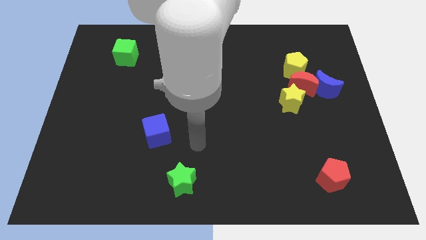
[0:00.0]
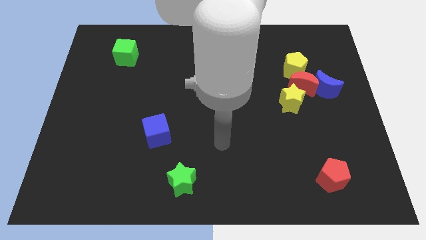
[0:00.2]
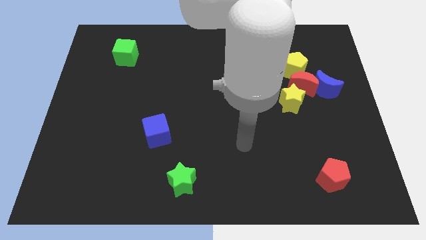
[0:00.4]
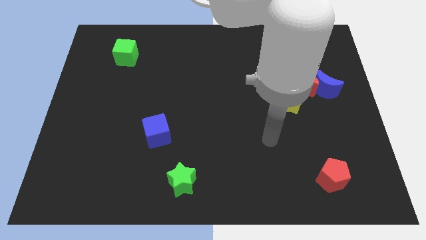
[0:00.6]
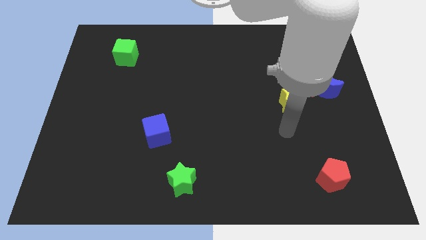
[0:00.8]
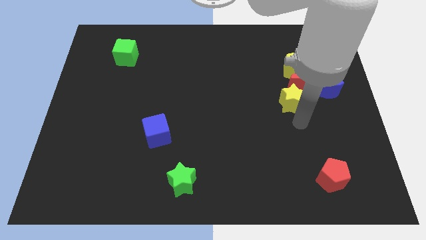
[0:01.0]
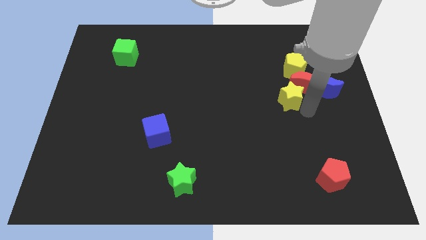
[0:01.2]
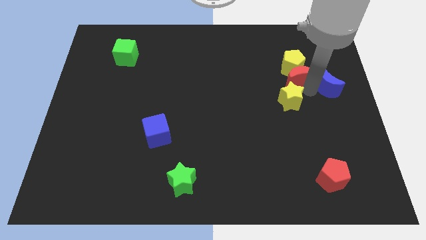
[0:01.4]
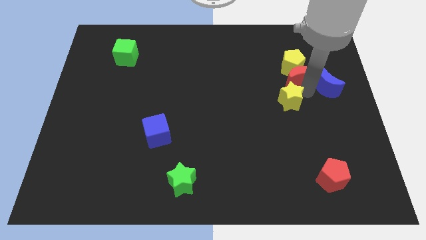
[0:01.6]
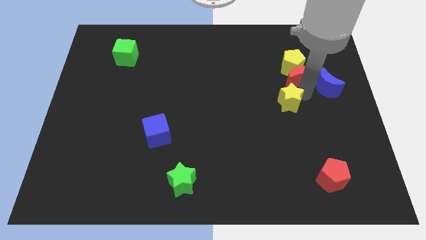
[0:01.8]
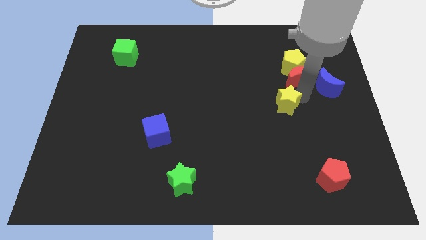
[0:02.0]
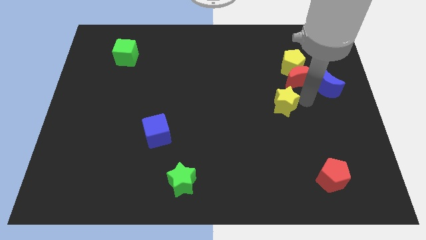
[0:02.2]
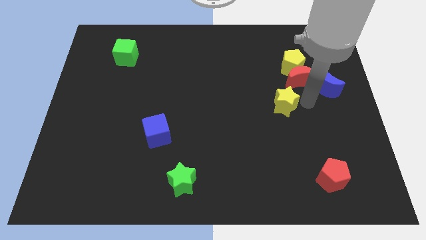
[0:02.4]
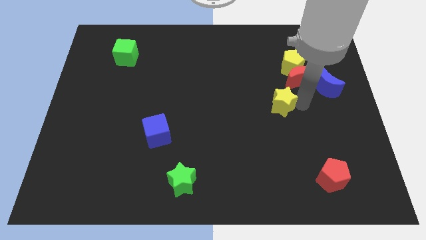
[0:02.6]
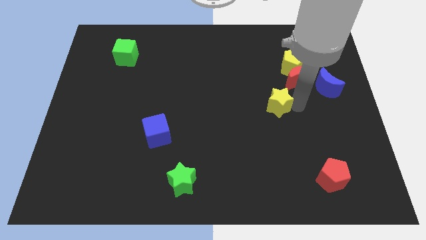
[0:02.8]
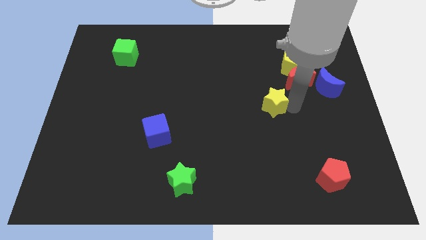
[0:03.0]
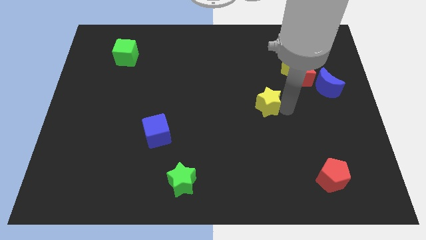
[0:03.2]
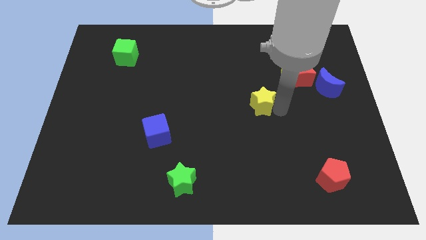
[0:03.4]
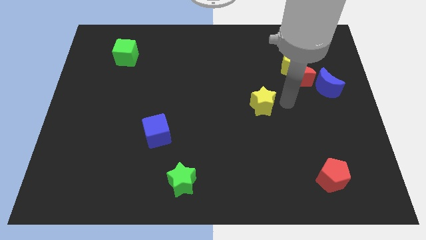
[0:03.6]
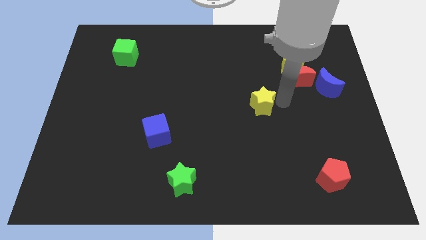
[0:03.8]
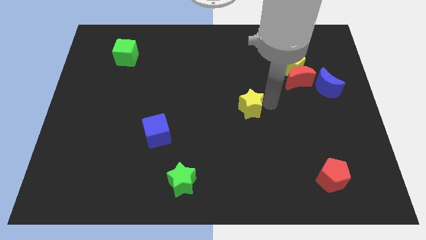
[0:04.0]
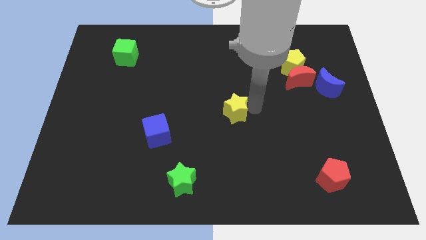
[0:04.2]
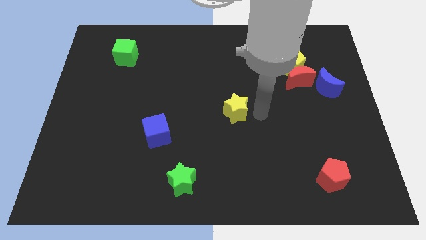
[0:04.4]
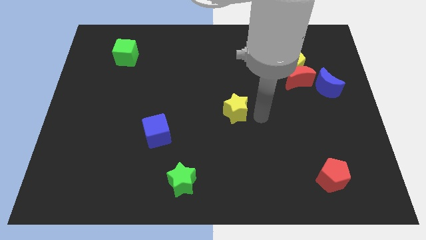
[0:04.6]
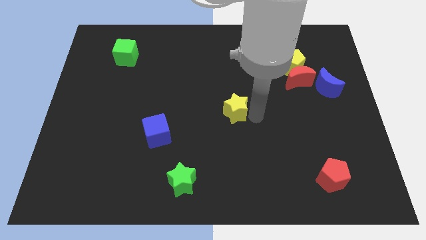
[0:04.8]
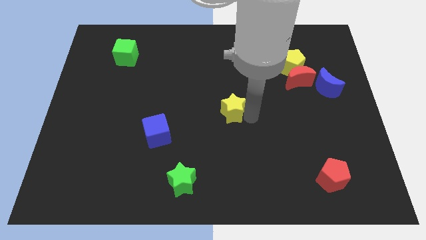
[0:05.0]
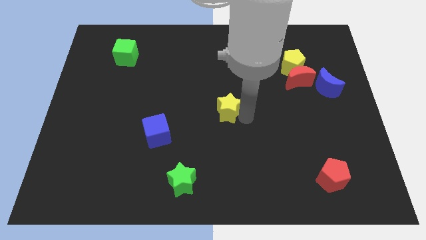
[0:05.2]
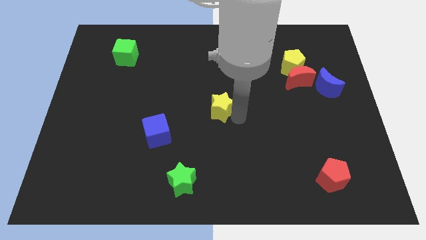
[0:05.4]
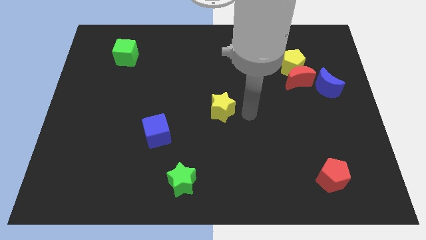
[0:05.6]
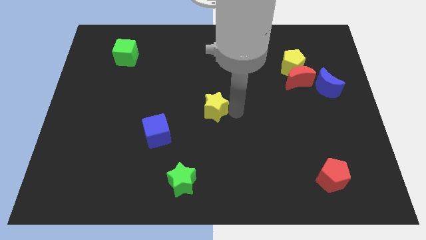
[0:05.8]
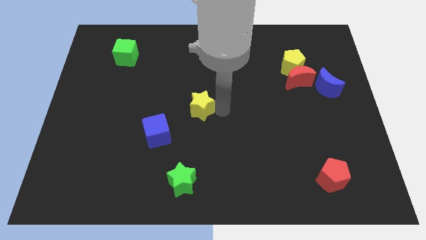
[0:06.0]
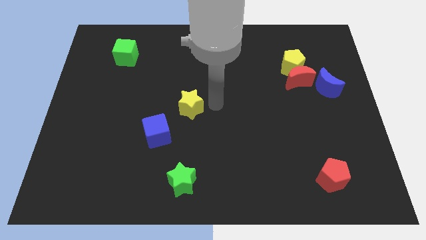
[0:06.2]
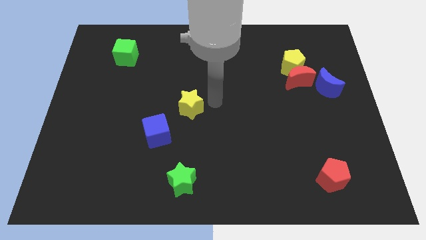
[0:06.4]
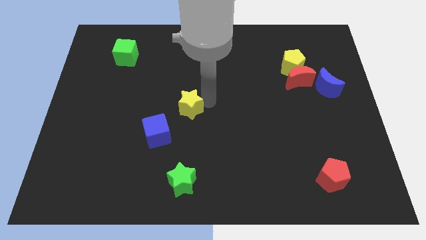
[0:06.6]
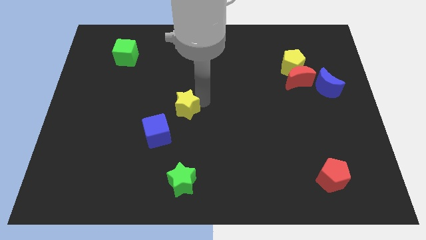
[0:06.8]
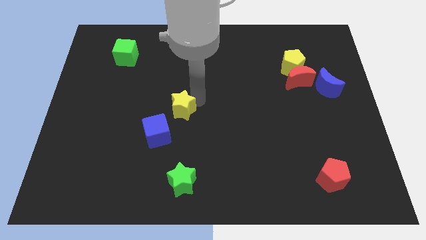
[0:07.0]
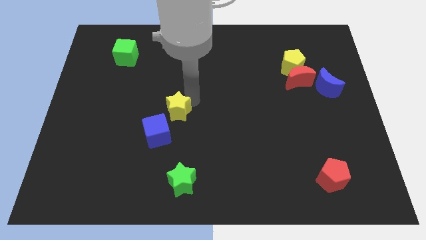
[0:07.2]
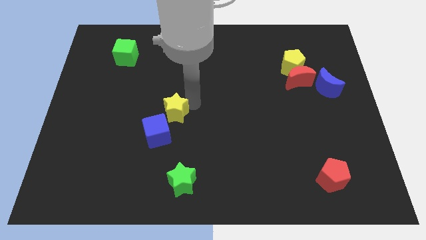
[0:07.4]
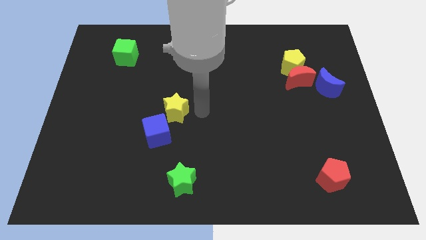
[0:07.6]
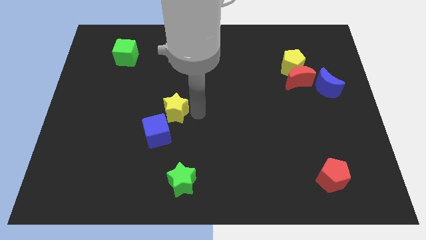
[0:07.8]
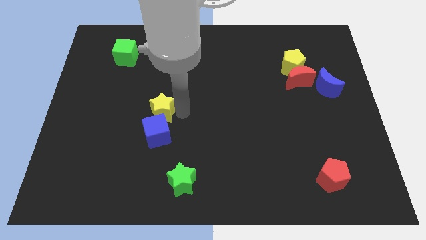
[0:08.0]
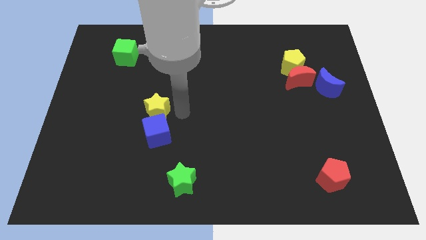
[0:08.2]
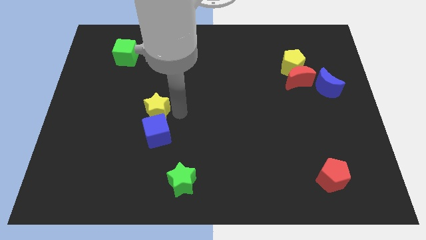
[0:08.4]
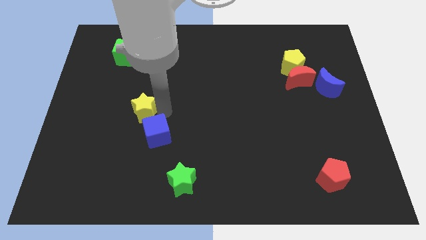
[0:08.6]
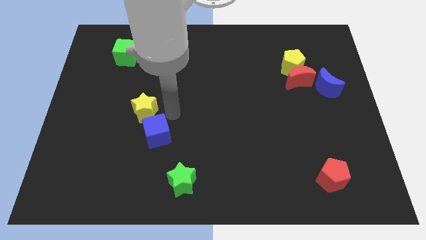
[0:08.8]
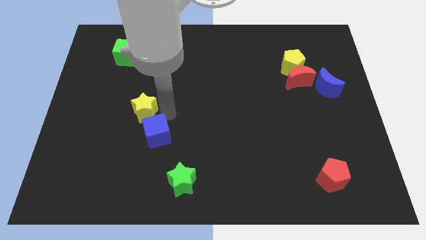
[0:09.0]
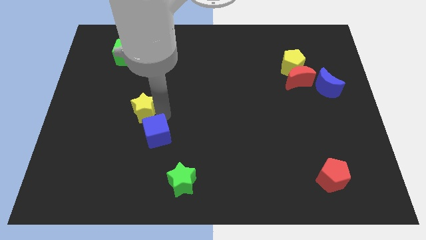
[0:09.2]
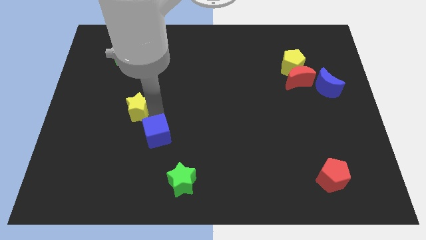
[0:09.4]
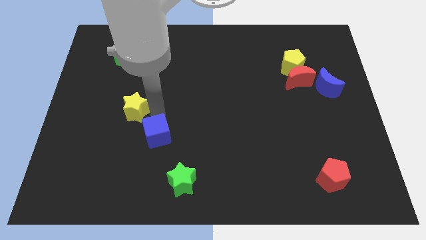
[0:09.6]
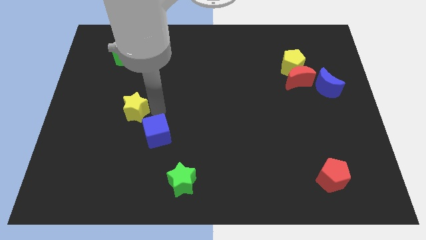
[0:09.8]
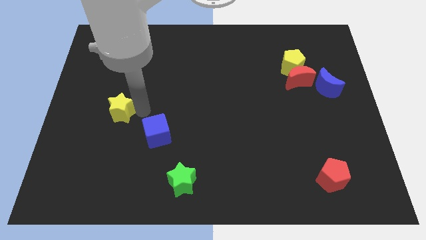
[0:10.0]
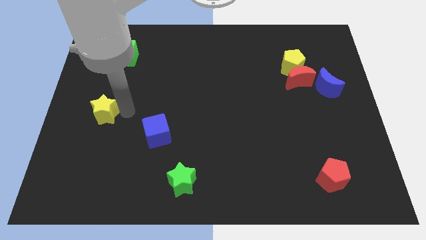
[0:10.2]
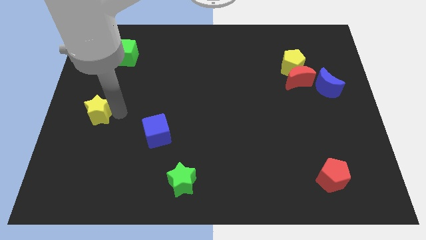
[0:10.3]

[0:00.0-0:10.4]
put the yellow star to the left side

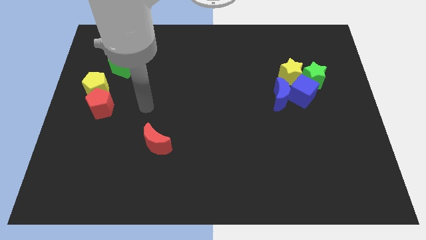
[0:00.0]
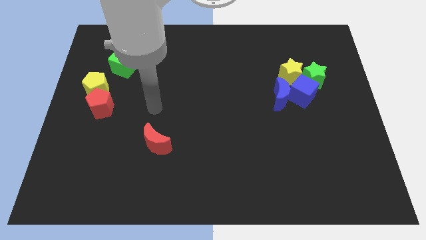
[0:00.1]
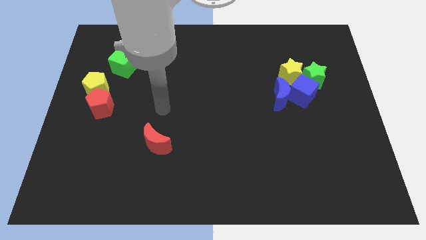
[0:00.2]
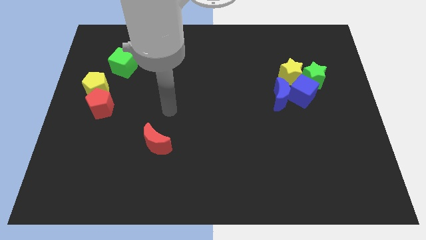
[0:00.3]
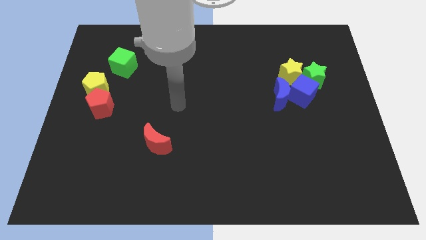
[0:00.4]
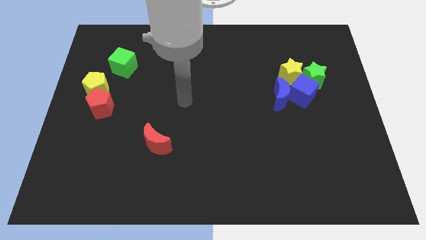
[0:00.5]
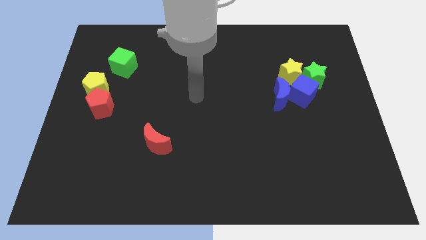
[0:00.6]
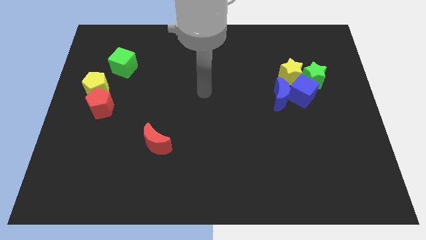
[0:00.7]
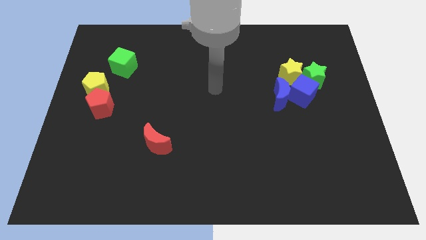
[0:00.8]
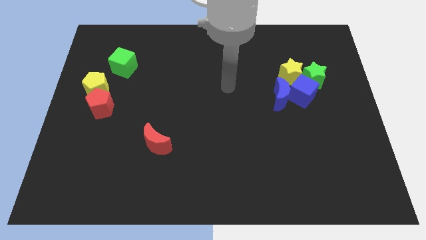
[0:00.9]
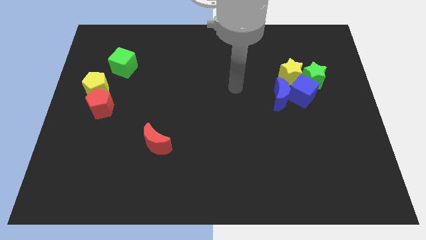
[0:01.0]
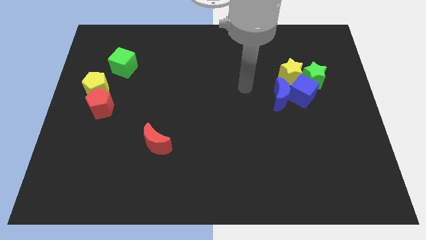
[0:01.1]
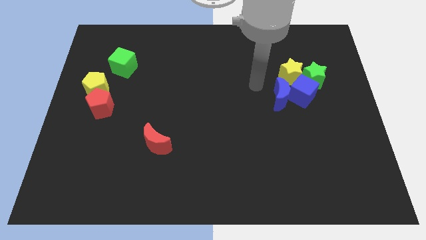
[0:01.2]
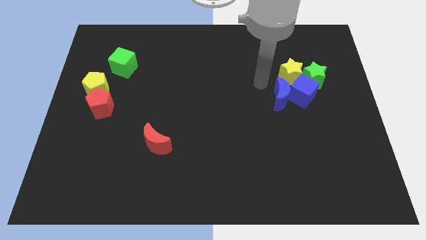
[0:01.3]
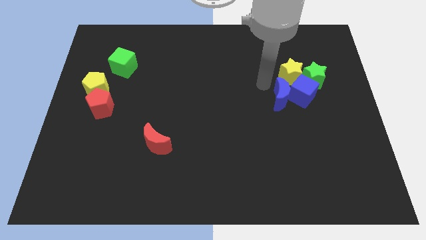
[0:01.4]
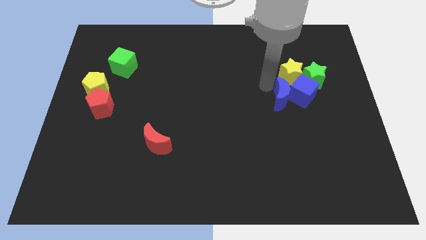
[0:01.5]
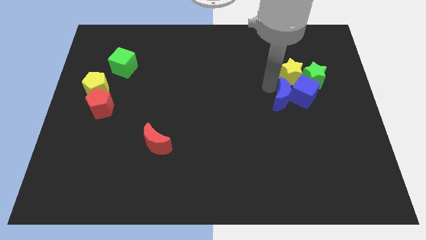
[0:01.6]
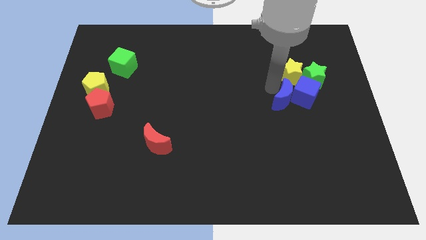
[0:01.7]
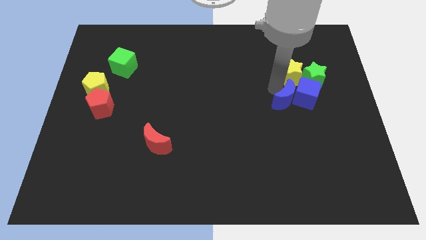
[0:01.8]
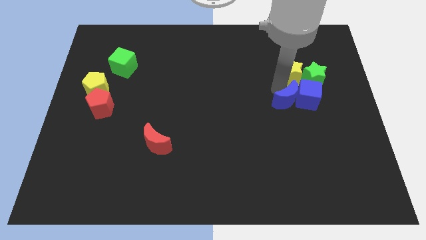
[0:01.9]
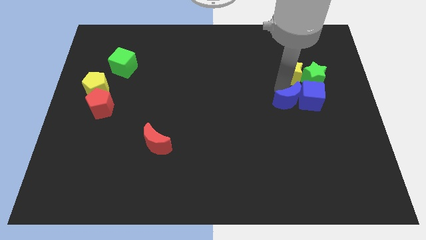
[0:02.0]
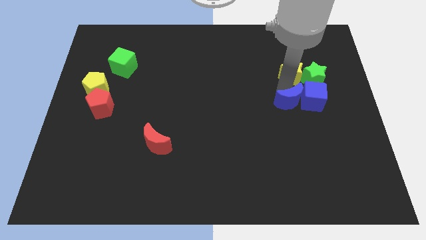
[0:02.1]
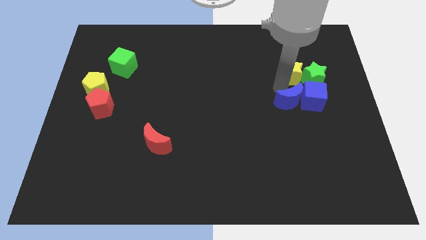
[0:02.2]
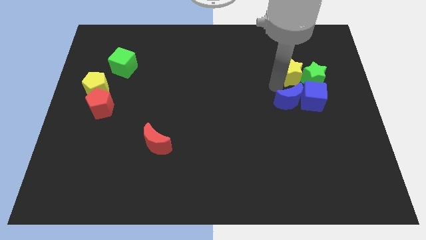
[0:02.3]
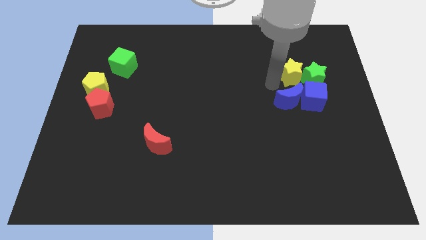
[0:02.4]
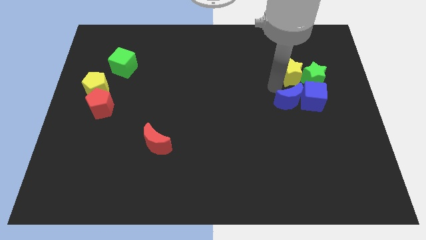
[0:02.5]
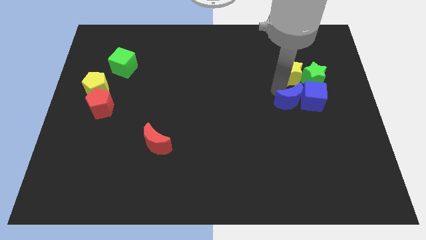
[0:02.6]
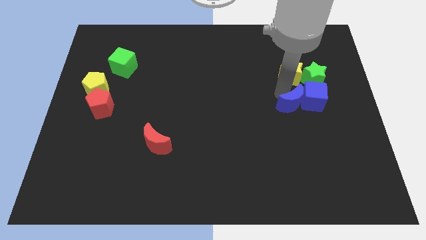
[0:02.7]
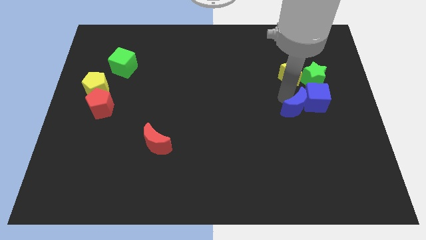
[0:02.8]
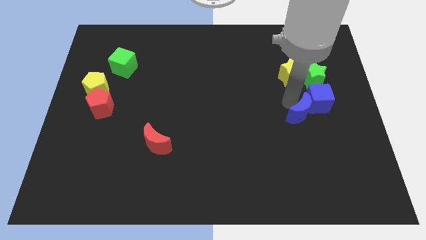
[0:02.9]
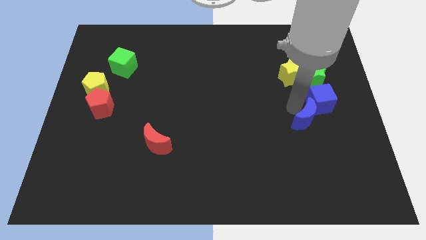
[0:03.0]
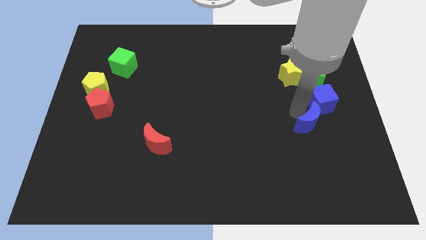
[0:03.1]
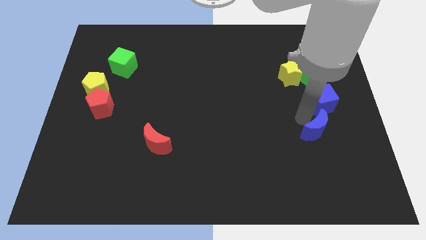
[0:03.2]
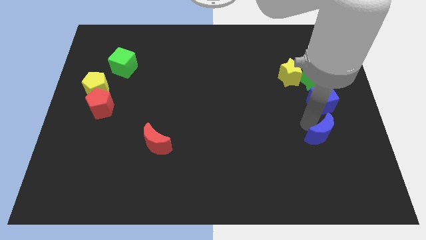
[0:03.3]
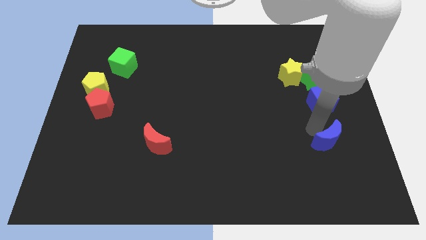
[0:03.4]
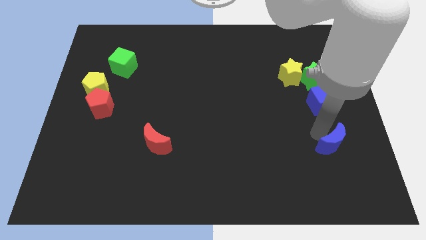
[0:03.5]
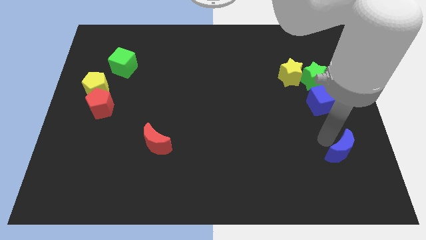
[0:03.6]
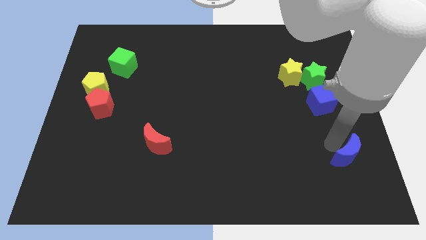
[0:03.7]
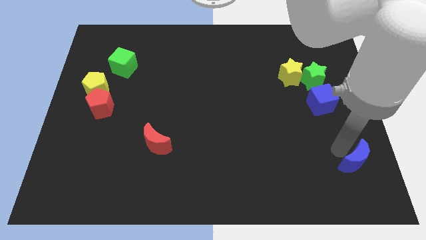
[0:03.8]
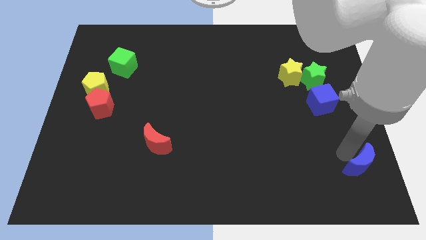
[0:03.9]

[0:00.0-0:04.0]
push the blue moon to the bottom right
